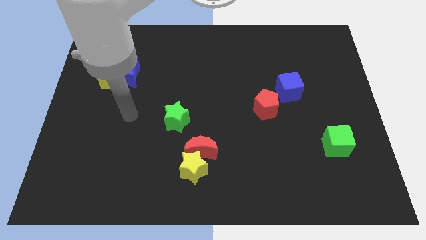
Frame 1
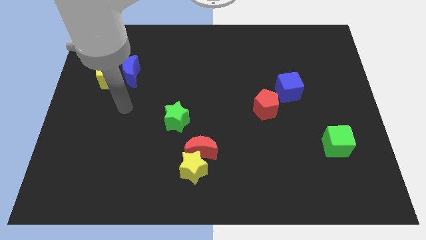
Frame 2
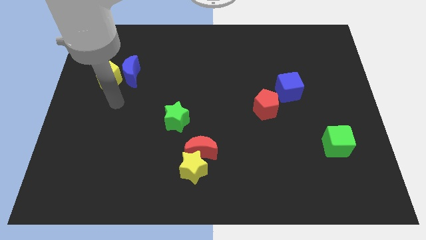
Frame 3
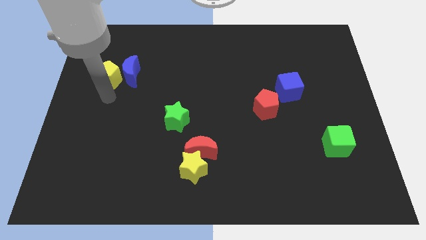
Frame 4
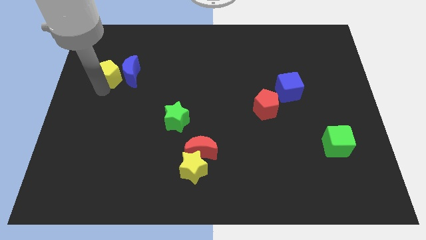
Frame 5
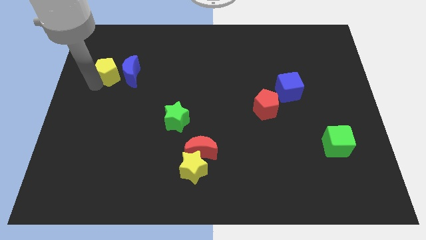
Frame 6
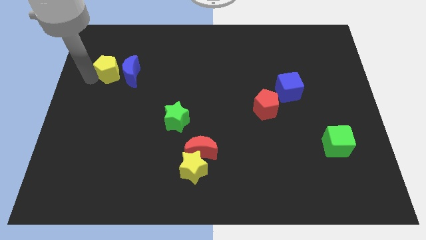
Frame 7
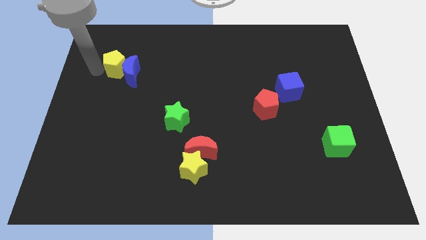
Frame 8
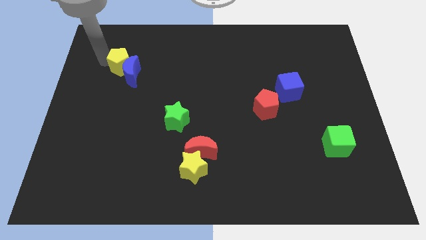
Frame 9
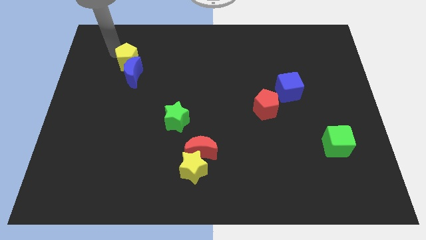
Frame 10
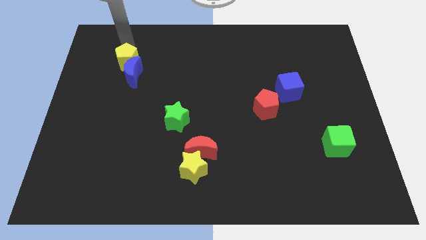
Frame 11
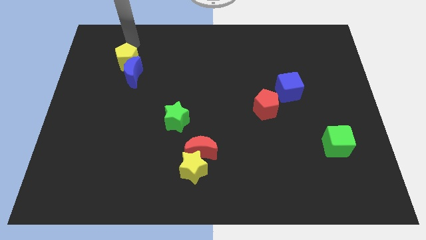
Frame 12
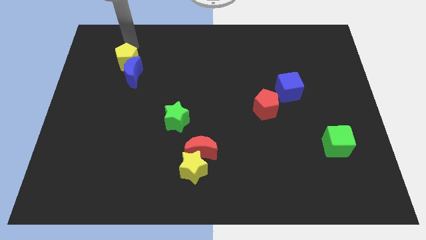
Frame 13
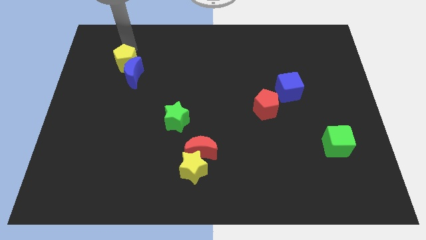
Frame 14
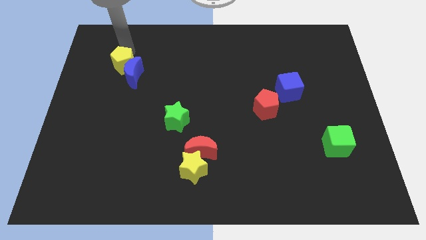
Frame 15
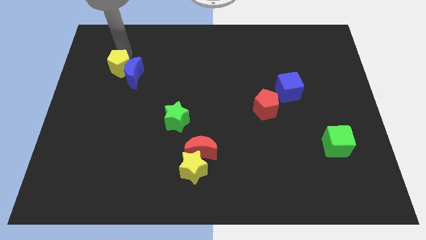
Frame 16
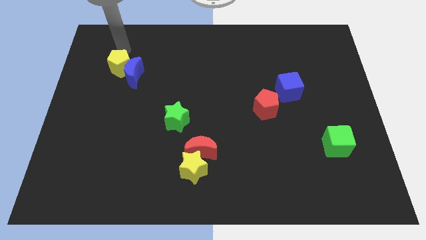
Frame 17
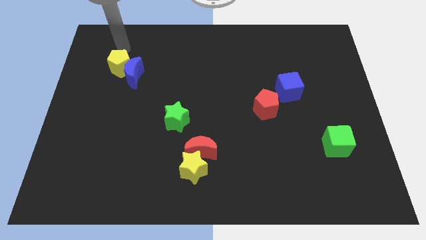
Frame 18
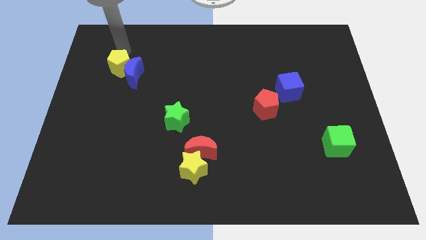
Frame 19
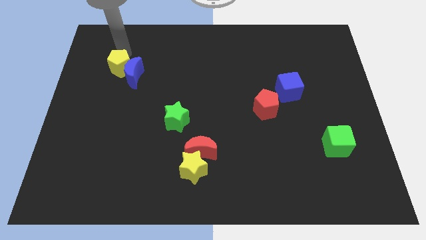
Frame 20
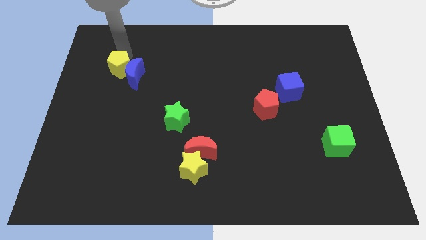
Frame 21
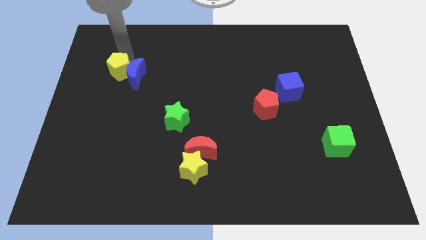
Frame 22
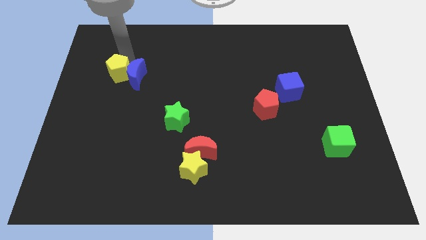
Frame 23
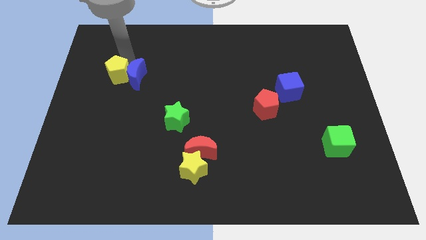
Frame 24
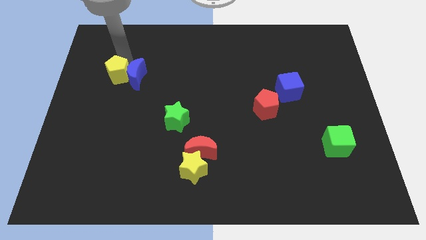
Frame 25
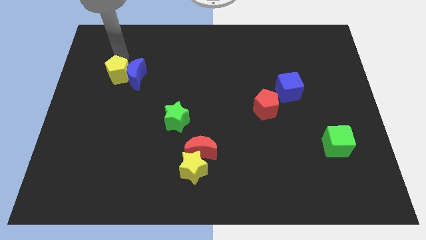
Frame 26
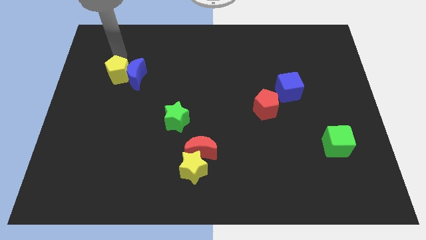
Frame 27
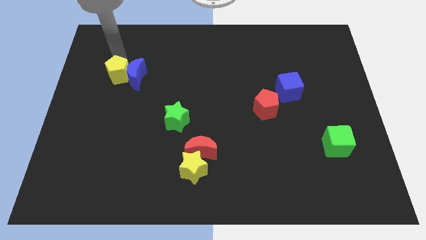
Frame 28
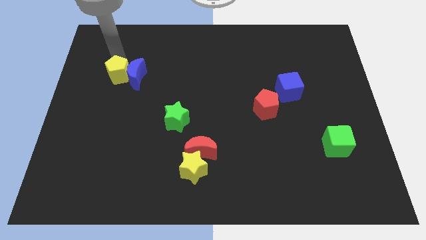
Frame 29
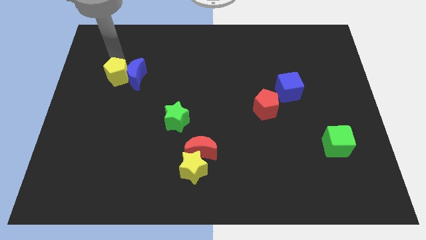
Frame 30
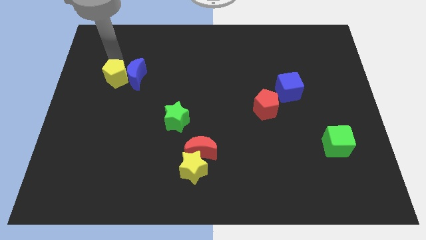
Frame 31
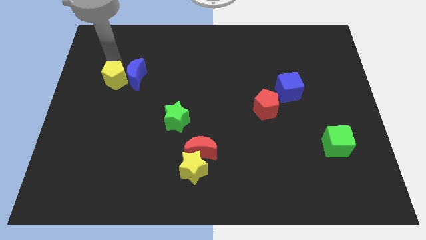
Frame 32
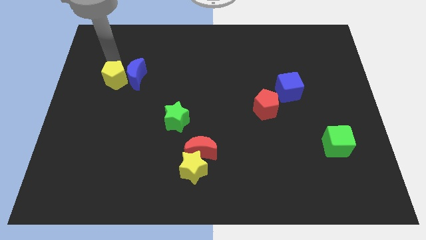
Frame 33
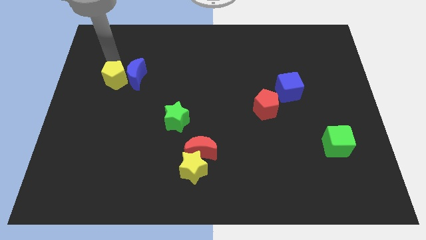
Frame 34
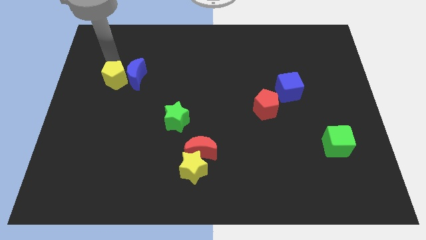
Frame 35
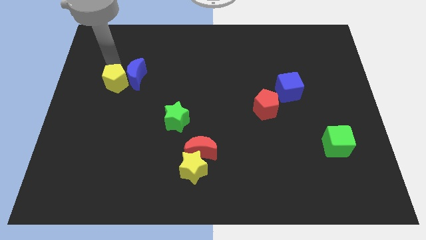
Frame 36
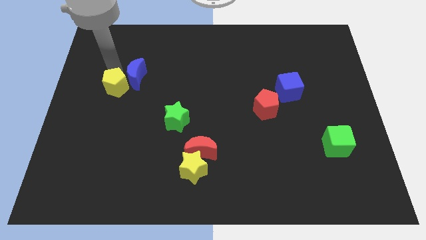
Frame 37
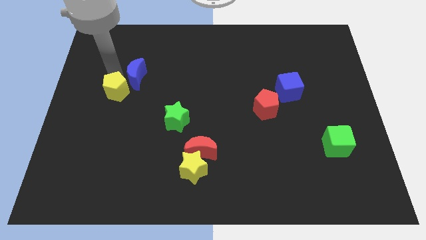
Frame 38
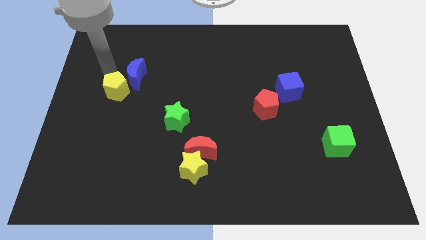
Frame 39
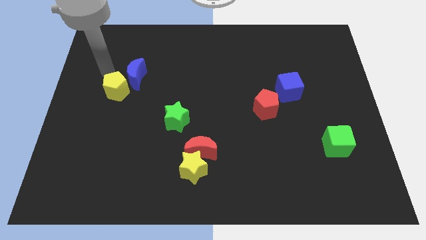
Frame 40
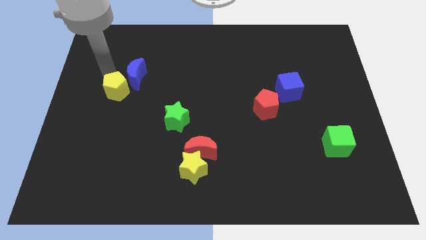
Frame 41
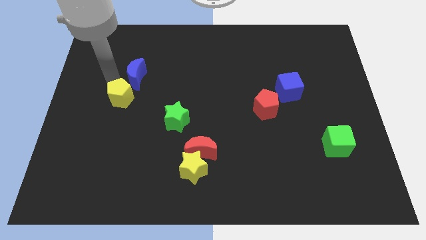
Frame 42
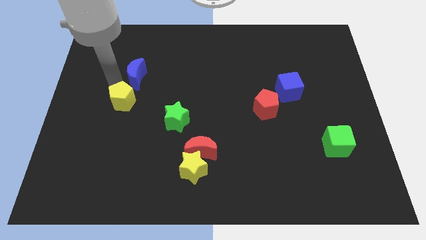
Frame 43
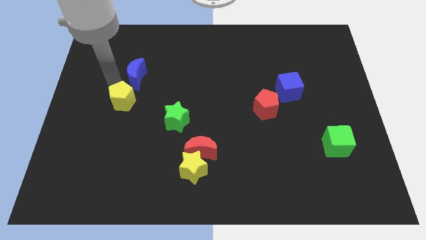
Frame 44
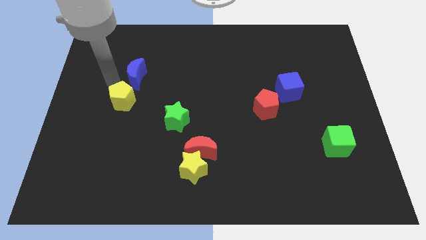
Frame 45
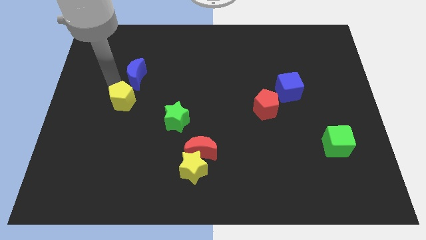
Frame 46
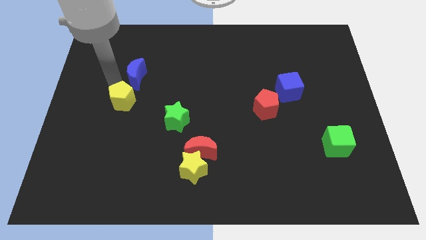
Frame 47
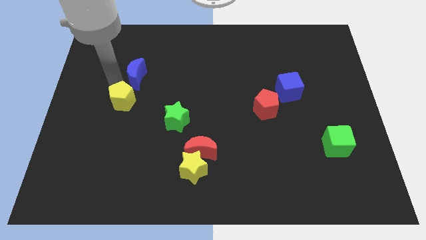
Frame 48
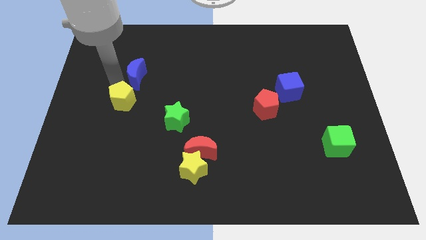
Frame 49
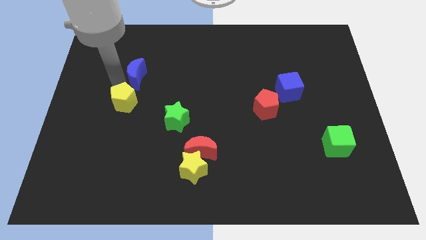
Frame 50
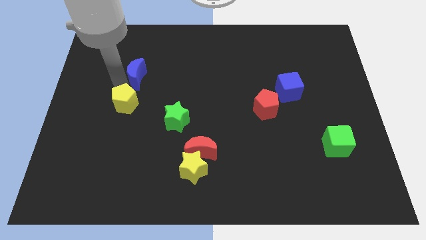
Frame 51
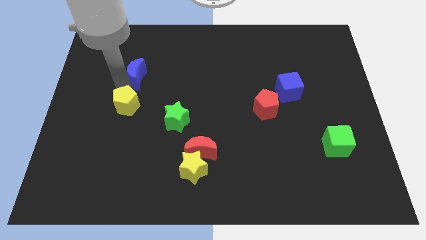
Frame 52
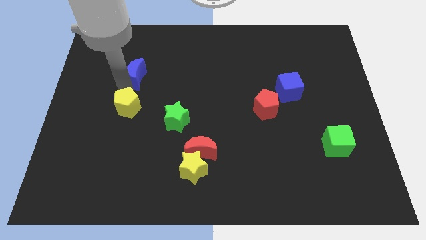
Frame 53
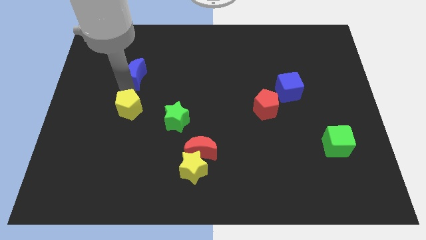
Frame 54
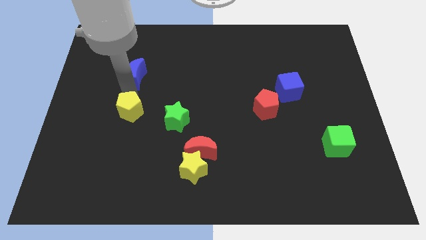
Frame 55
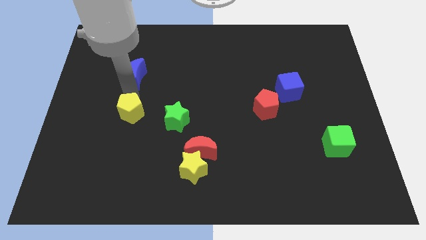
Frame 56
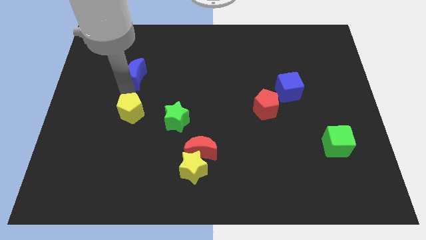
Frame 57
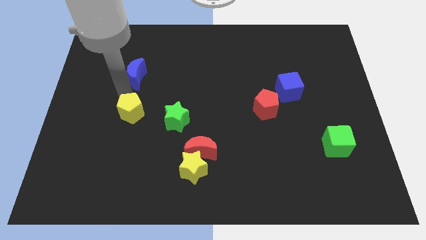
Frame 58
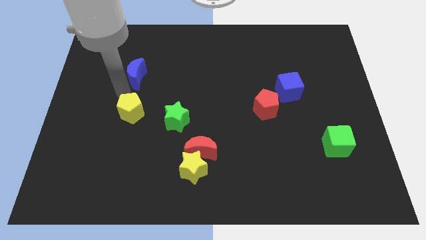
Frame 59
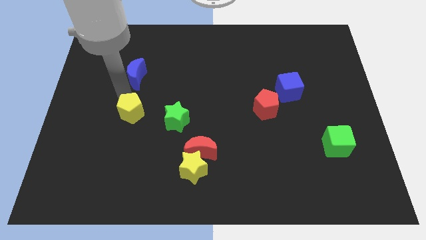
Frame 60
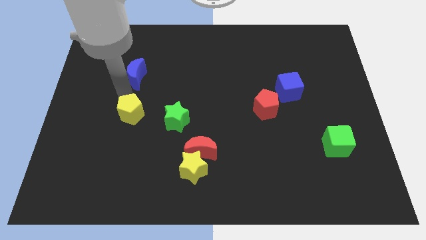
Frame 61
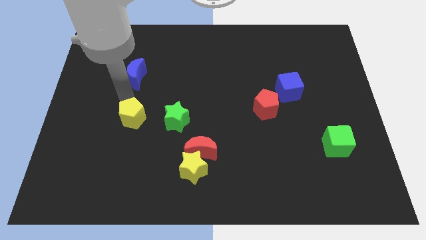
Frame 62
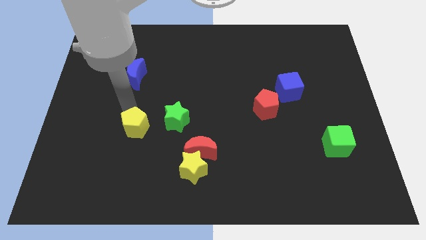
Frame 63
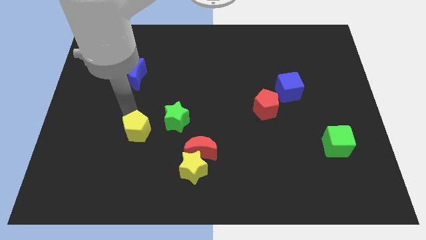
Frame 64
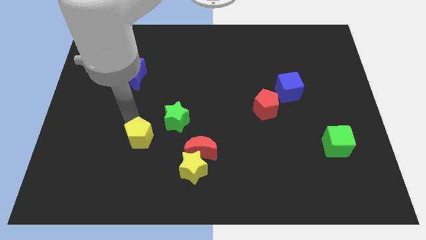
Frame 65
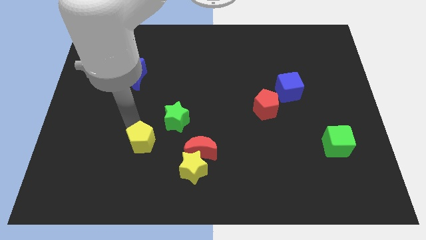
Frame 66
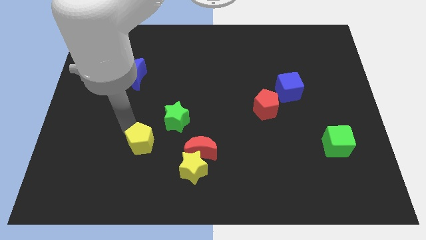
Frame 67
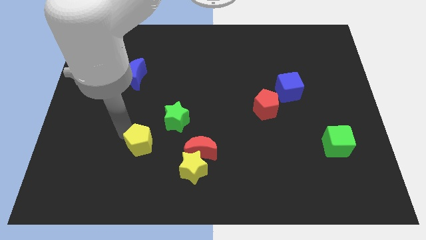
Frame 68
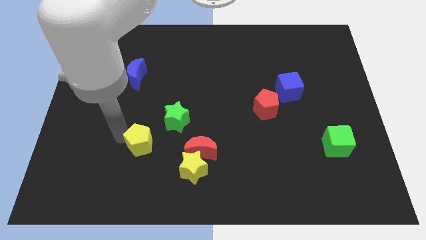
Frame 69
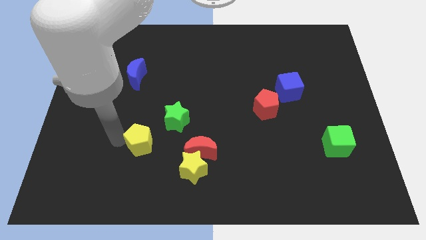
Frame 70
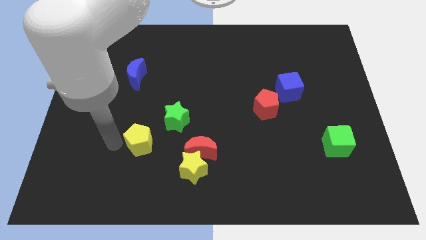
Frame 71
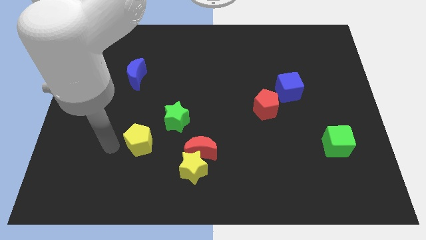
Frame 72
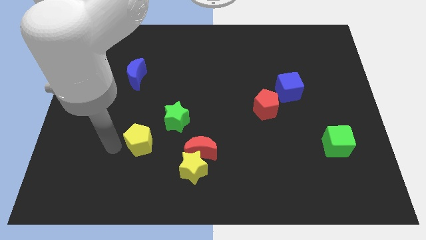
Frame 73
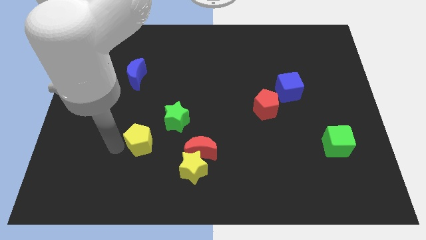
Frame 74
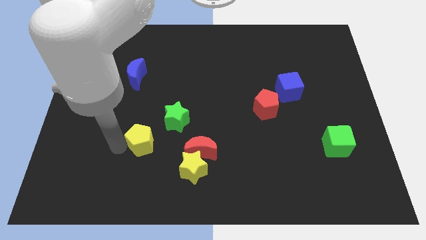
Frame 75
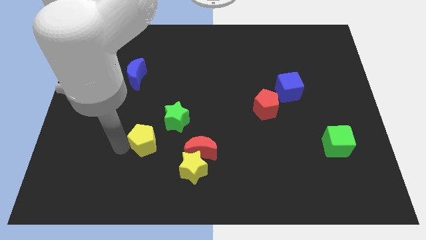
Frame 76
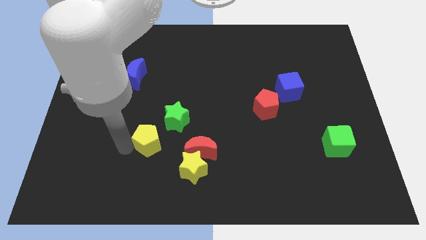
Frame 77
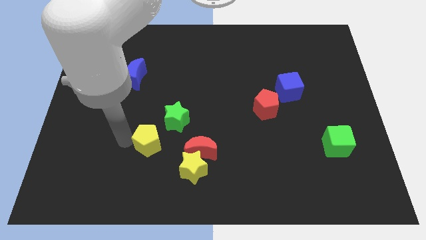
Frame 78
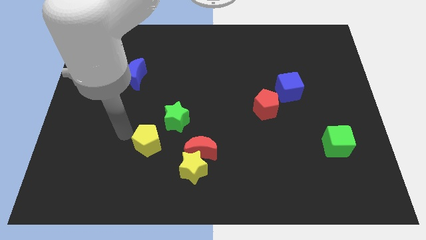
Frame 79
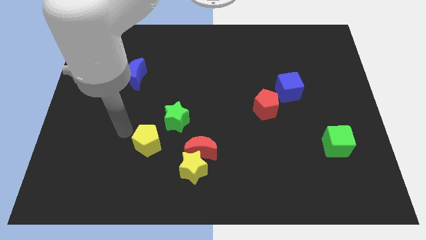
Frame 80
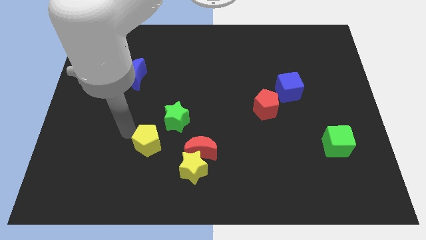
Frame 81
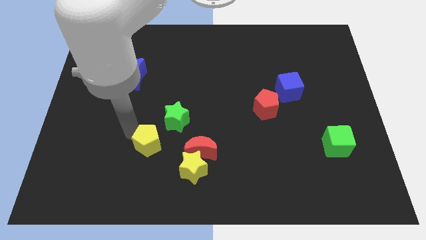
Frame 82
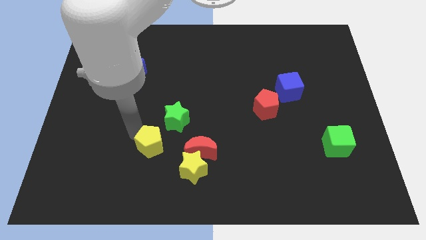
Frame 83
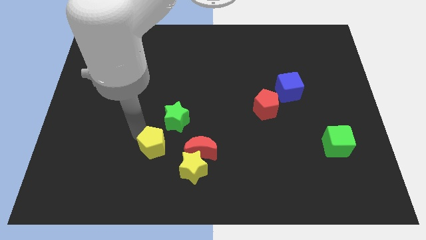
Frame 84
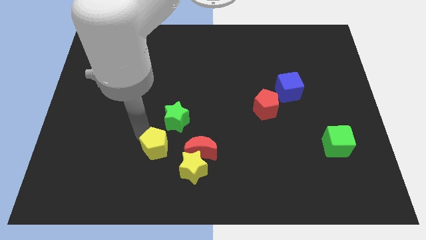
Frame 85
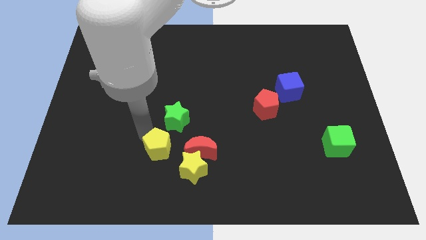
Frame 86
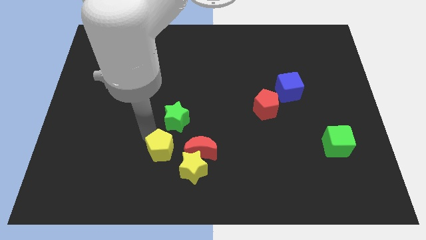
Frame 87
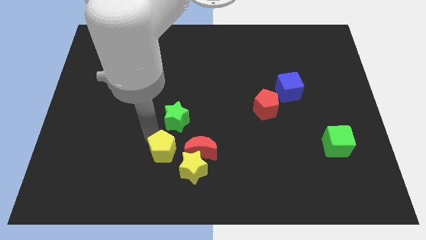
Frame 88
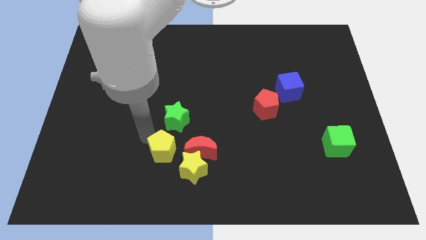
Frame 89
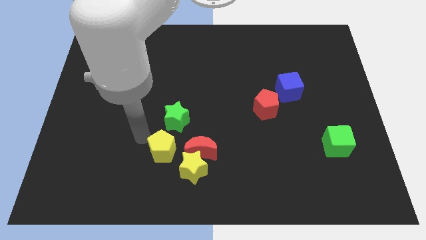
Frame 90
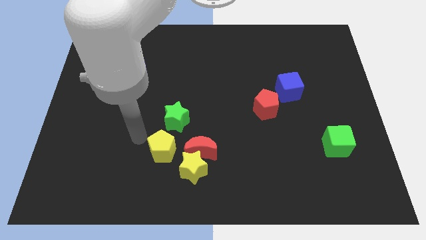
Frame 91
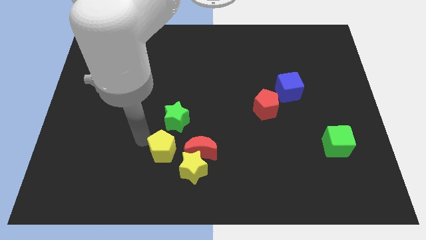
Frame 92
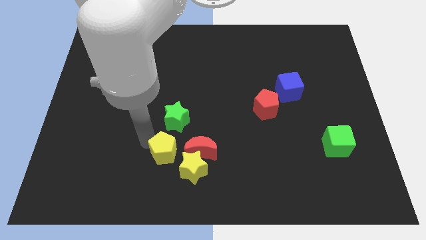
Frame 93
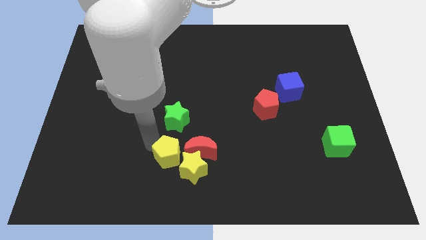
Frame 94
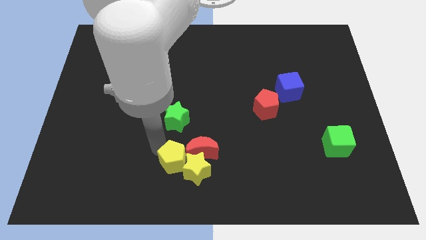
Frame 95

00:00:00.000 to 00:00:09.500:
slide the yellow pentagon towards the yellow star
